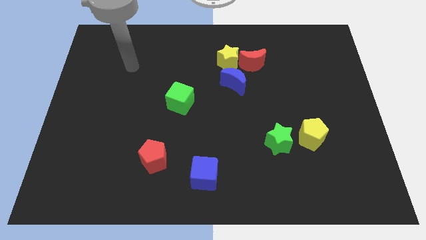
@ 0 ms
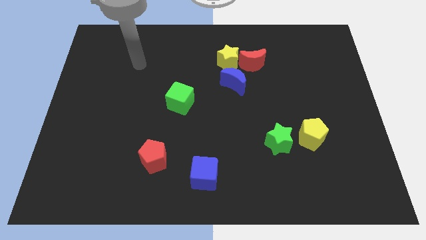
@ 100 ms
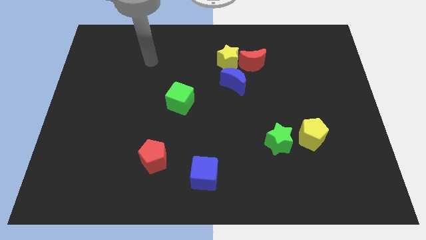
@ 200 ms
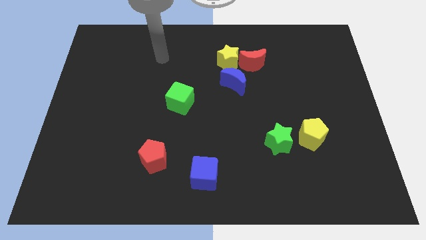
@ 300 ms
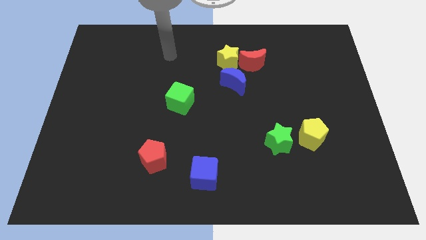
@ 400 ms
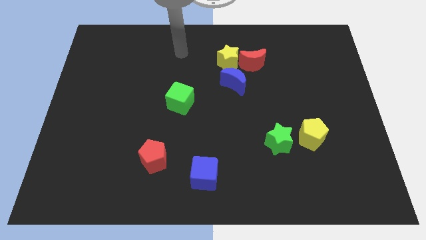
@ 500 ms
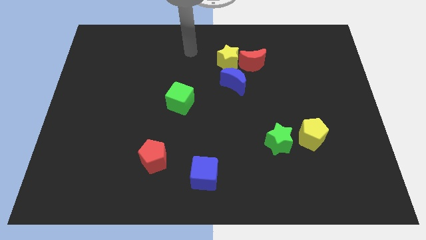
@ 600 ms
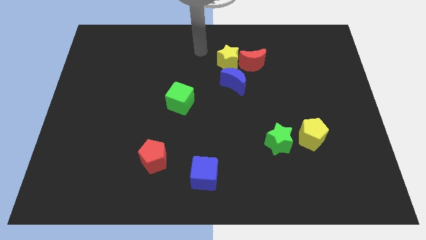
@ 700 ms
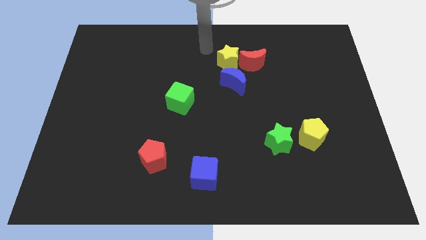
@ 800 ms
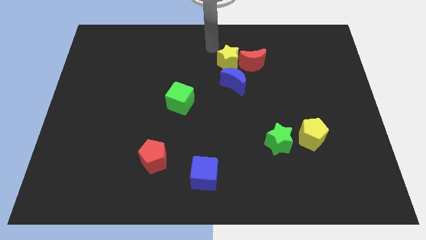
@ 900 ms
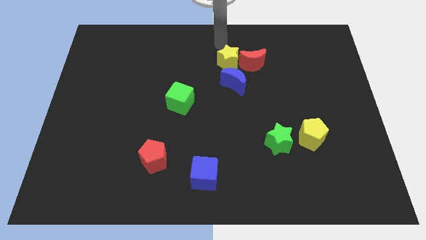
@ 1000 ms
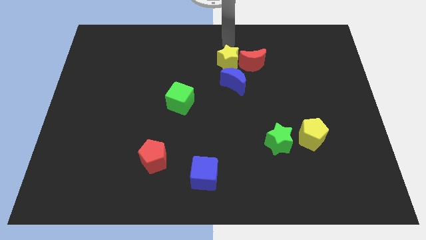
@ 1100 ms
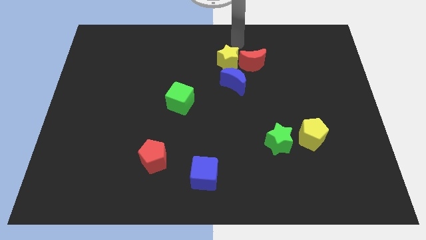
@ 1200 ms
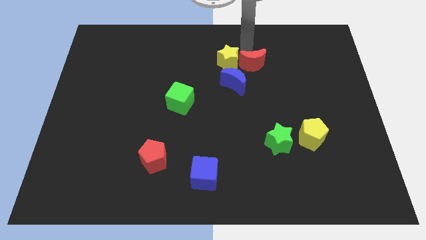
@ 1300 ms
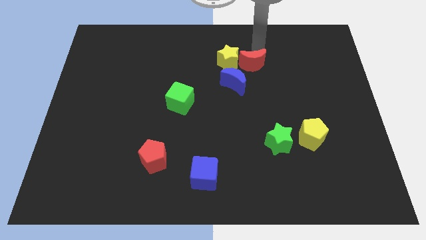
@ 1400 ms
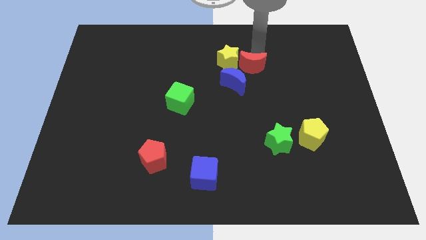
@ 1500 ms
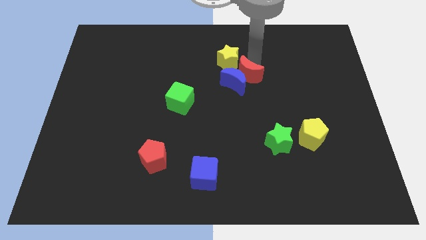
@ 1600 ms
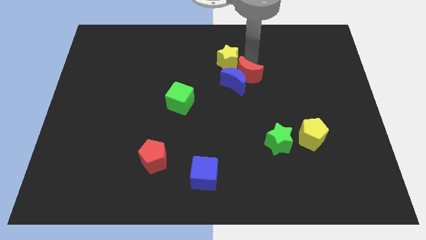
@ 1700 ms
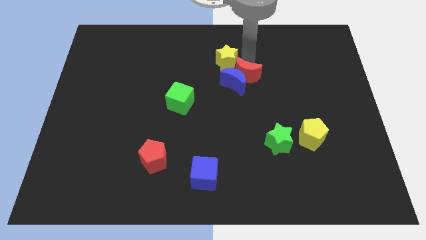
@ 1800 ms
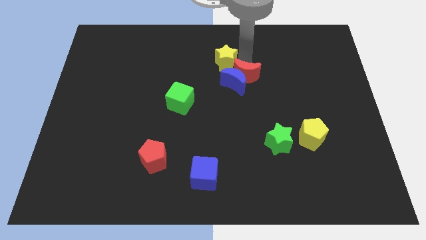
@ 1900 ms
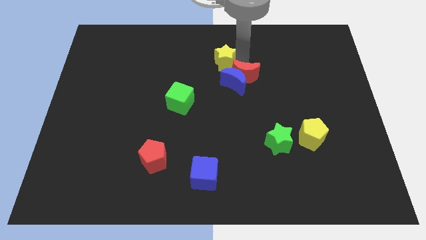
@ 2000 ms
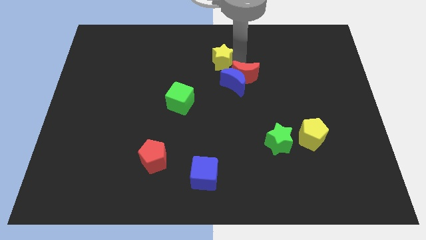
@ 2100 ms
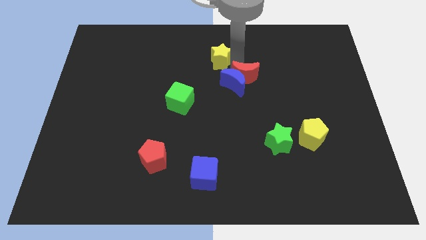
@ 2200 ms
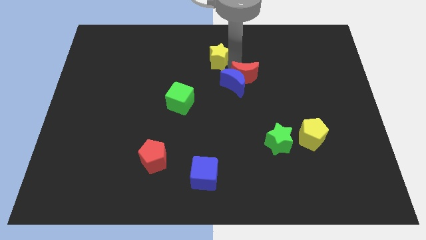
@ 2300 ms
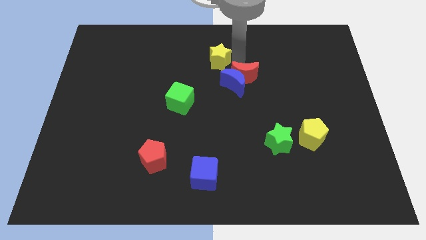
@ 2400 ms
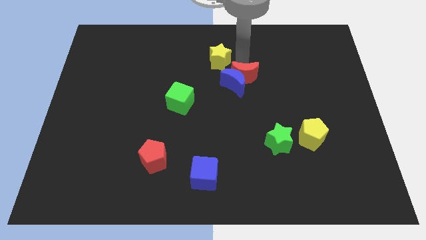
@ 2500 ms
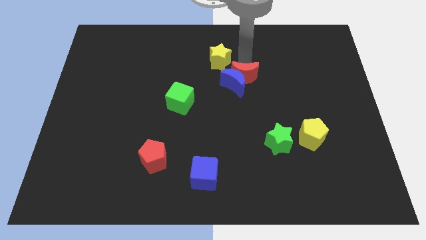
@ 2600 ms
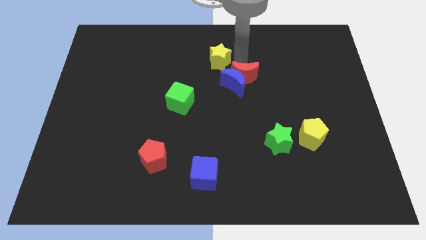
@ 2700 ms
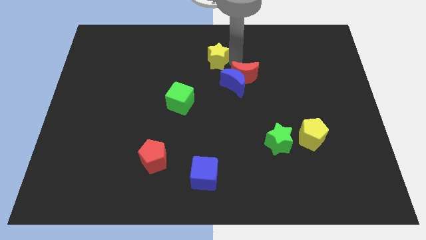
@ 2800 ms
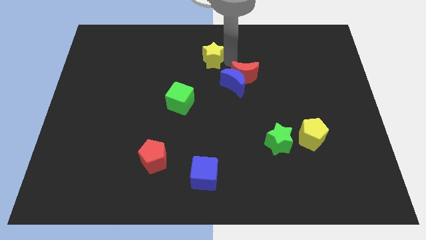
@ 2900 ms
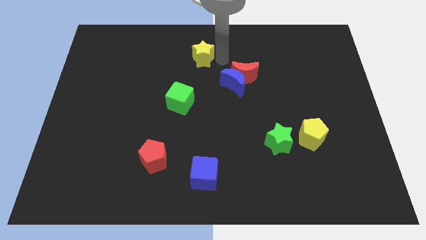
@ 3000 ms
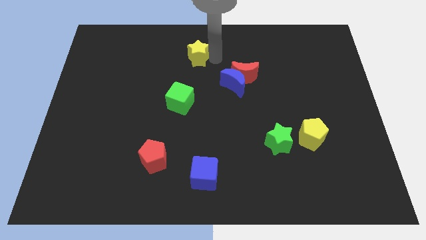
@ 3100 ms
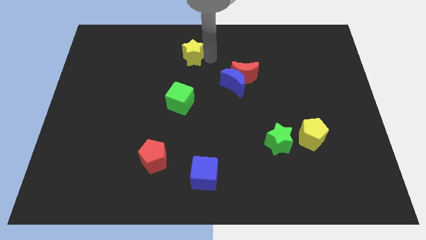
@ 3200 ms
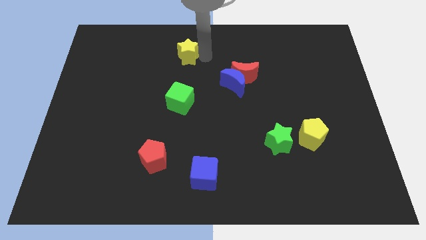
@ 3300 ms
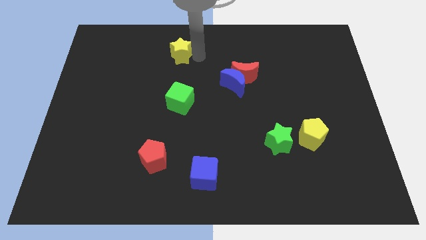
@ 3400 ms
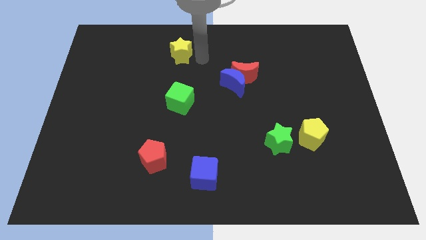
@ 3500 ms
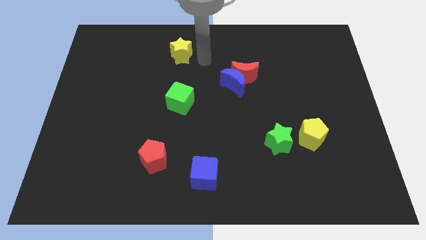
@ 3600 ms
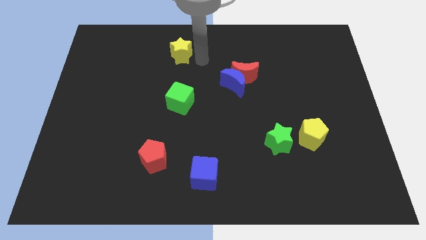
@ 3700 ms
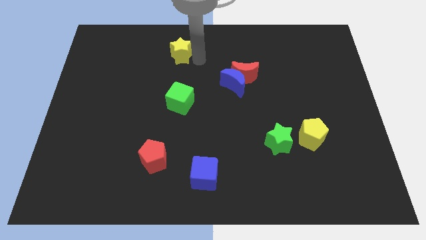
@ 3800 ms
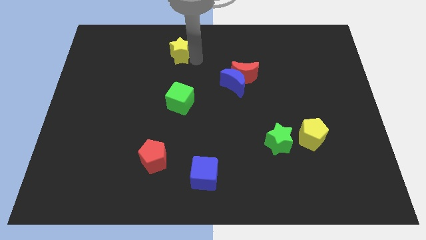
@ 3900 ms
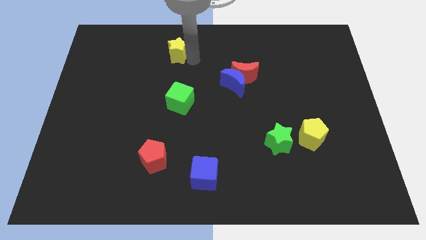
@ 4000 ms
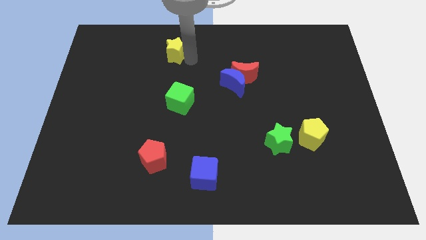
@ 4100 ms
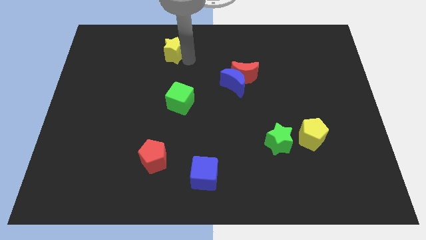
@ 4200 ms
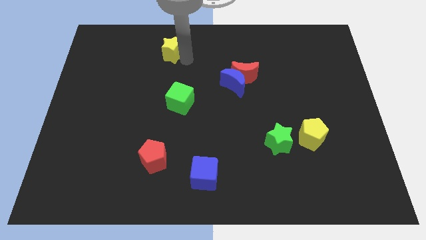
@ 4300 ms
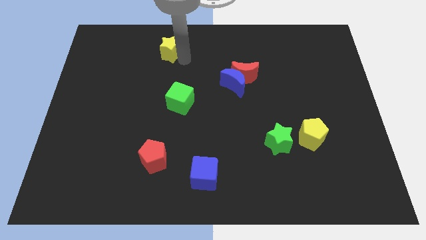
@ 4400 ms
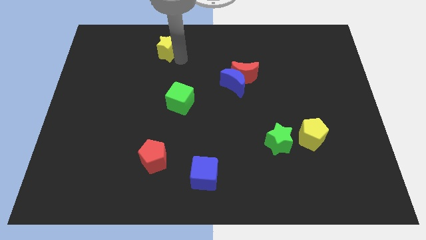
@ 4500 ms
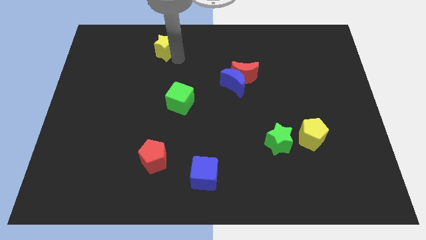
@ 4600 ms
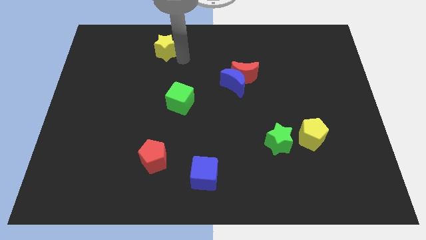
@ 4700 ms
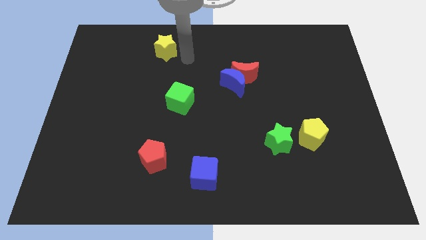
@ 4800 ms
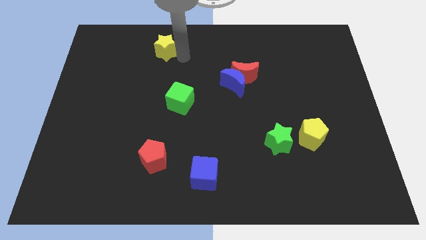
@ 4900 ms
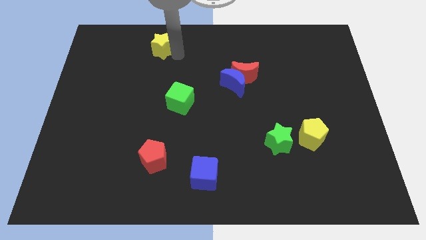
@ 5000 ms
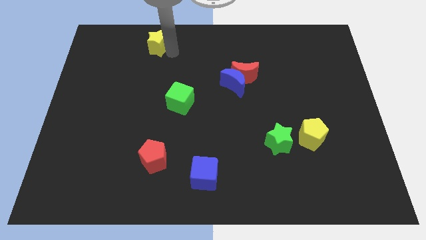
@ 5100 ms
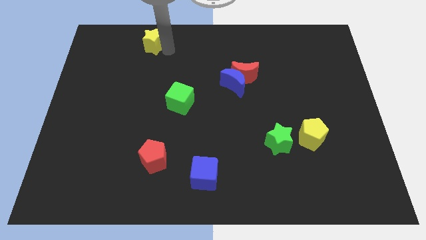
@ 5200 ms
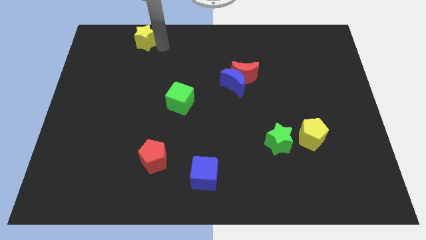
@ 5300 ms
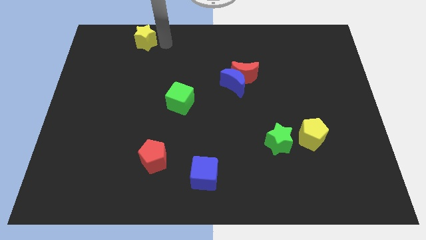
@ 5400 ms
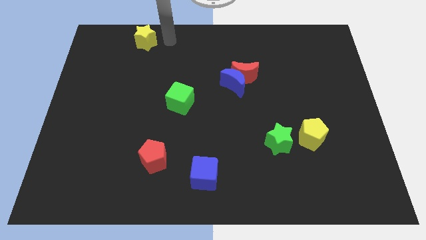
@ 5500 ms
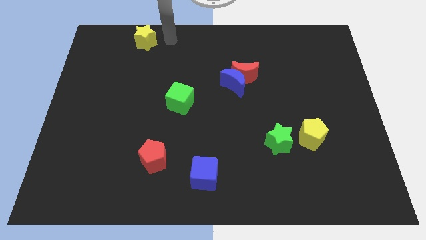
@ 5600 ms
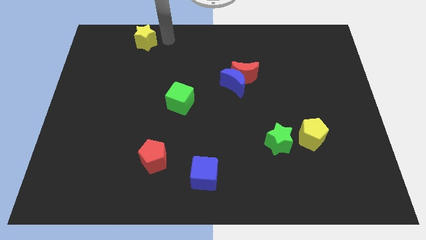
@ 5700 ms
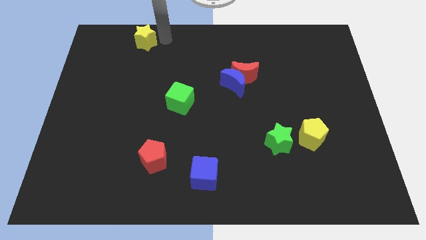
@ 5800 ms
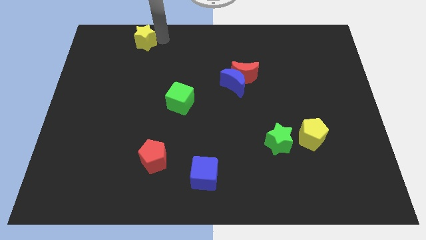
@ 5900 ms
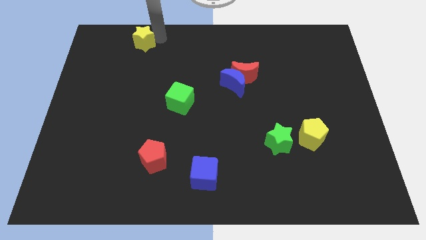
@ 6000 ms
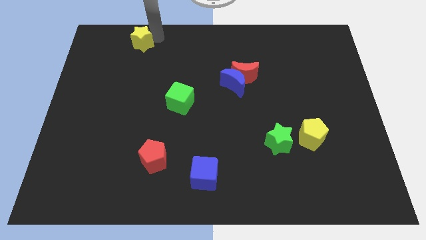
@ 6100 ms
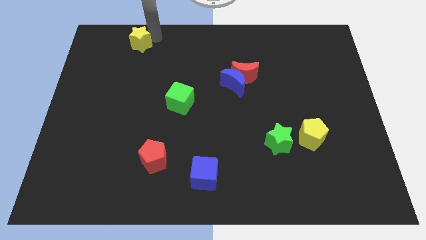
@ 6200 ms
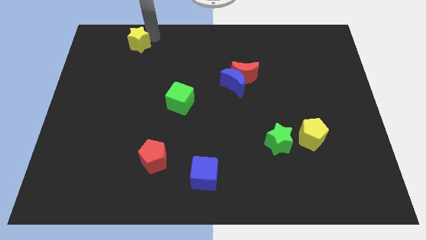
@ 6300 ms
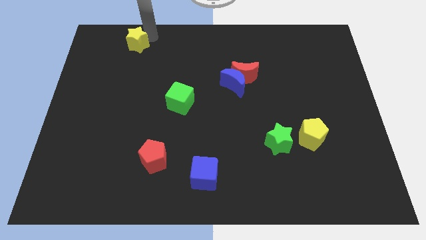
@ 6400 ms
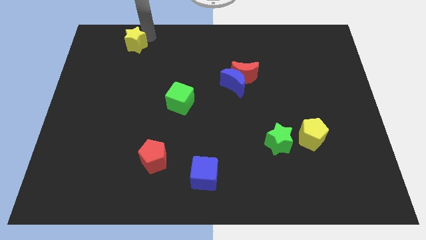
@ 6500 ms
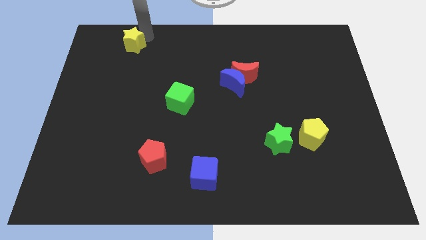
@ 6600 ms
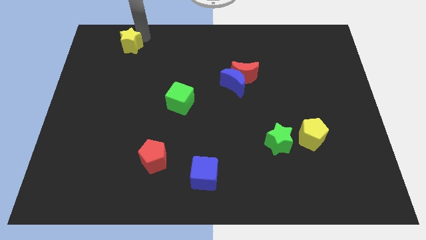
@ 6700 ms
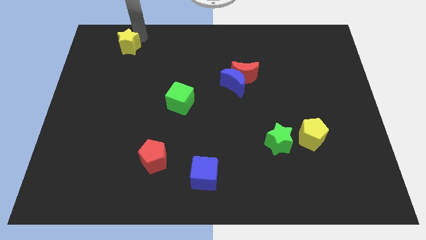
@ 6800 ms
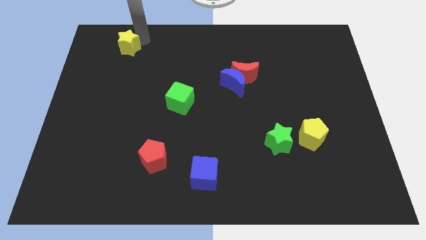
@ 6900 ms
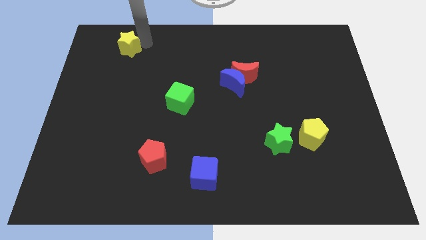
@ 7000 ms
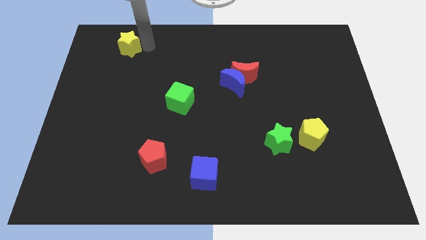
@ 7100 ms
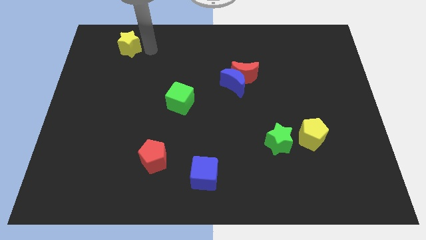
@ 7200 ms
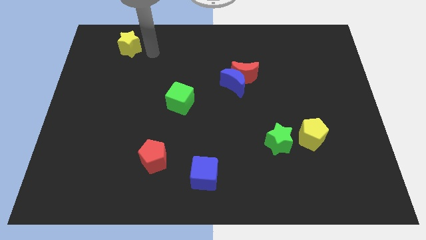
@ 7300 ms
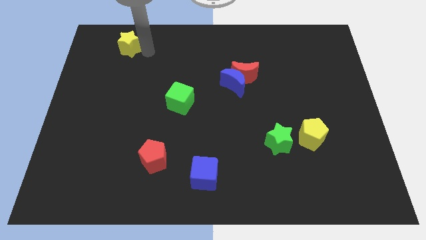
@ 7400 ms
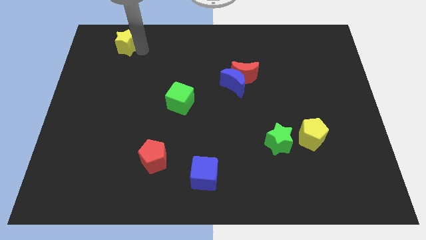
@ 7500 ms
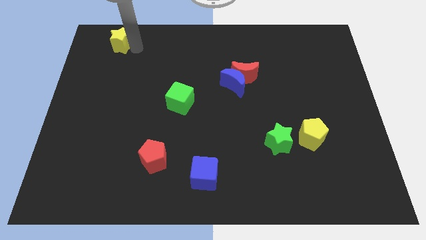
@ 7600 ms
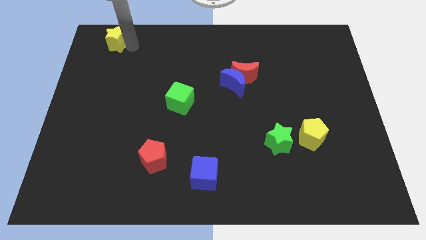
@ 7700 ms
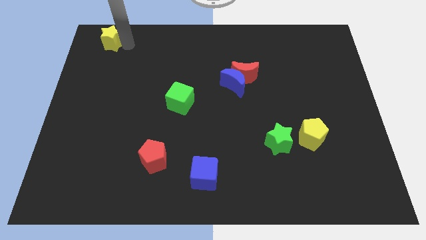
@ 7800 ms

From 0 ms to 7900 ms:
slide the yellow star to the top left
